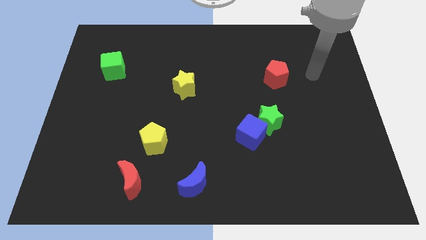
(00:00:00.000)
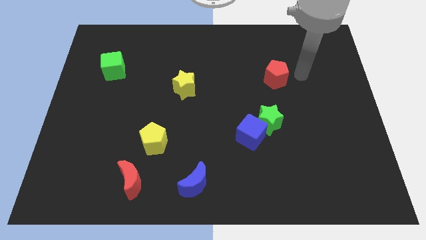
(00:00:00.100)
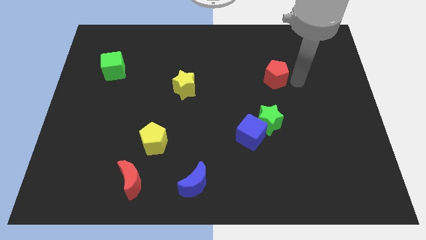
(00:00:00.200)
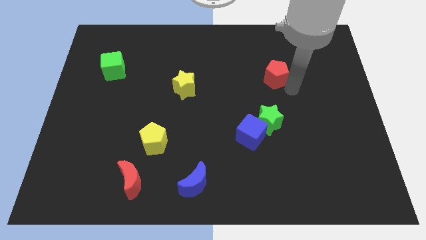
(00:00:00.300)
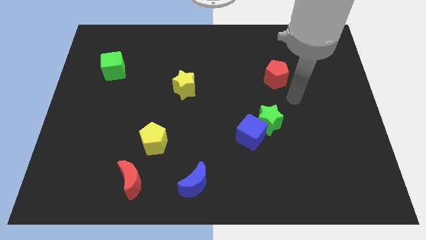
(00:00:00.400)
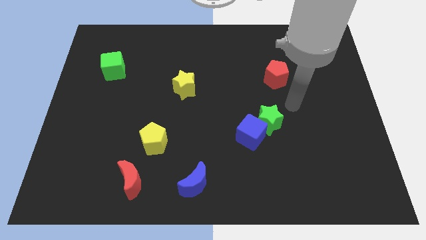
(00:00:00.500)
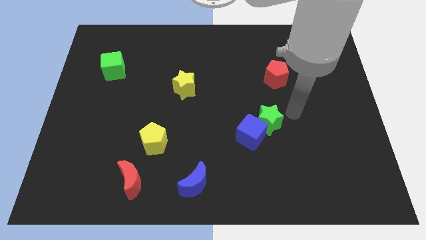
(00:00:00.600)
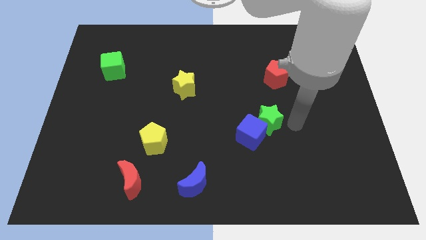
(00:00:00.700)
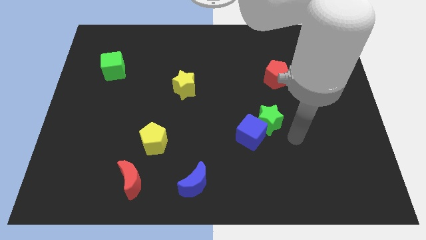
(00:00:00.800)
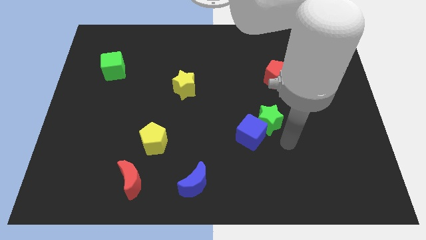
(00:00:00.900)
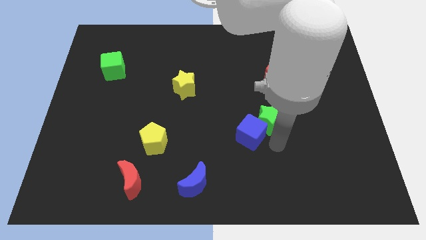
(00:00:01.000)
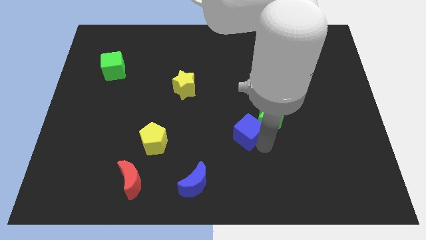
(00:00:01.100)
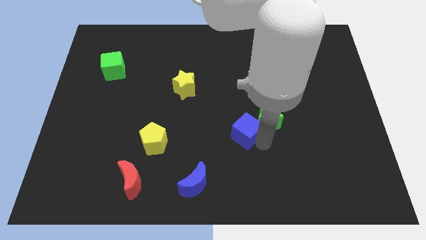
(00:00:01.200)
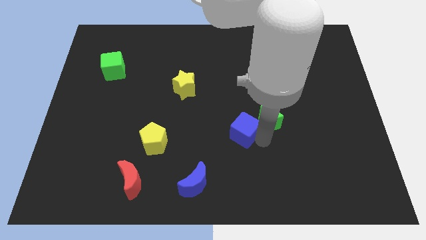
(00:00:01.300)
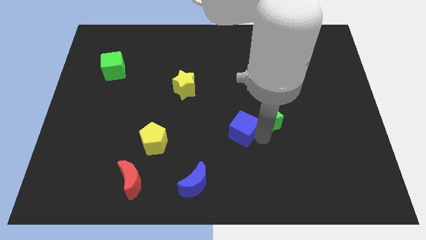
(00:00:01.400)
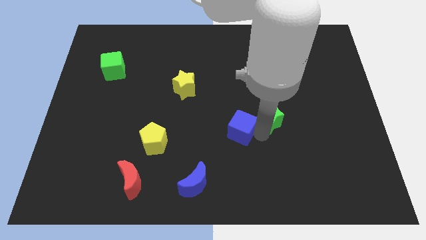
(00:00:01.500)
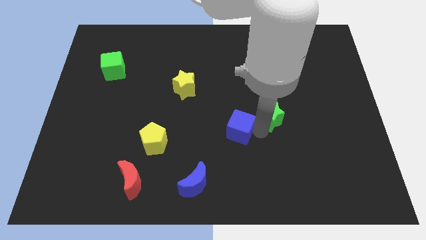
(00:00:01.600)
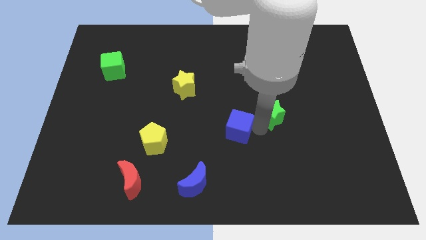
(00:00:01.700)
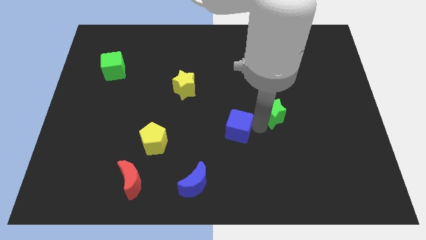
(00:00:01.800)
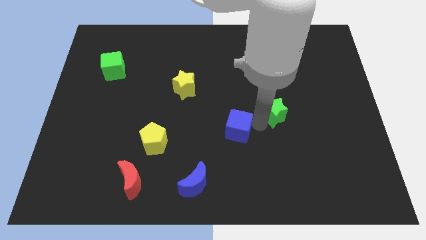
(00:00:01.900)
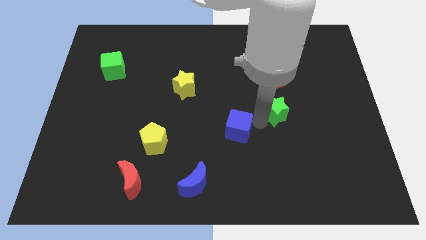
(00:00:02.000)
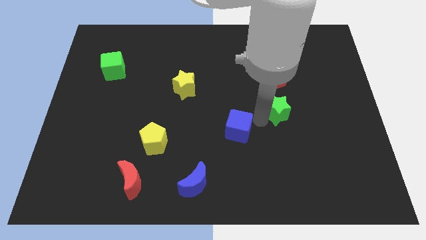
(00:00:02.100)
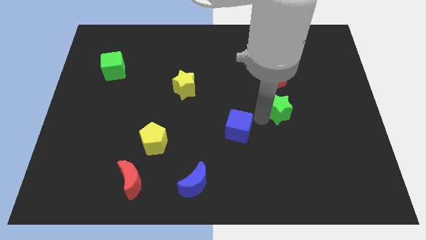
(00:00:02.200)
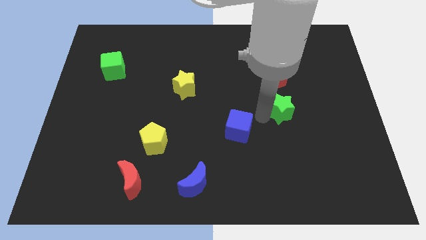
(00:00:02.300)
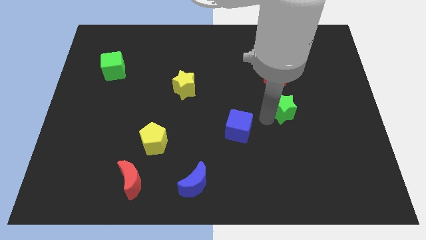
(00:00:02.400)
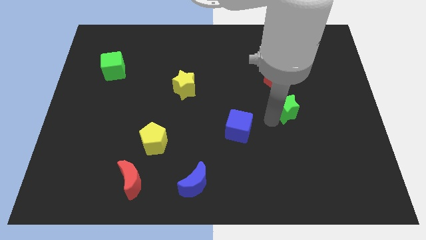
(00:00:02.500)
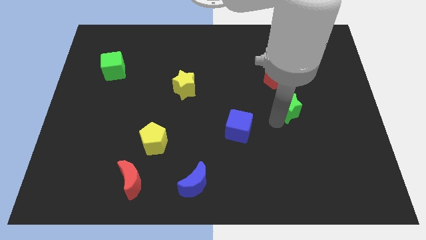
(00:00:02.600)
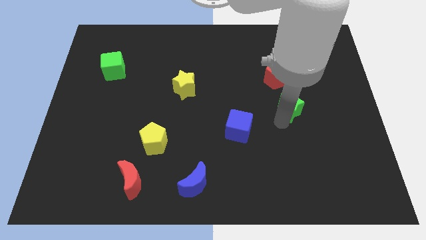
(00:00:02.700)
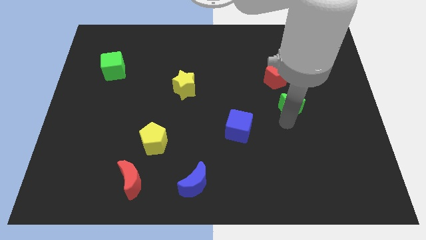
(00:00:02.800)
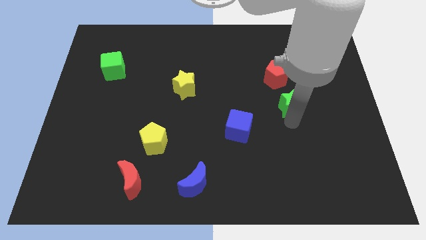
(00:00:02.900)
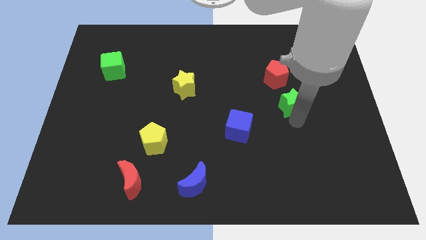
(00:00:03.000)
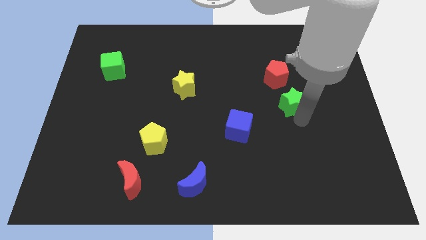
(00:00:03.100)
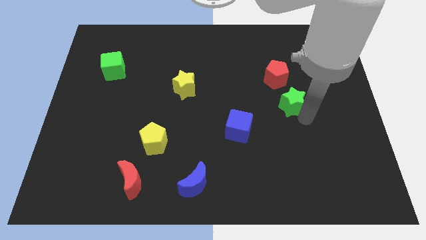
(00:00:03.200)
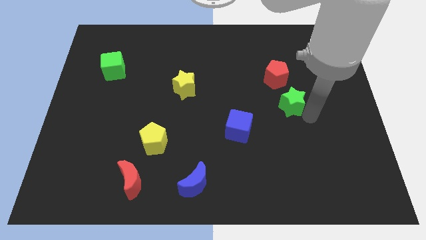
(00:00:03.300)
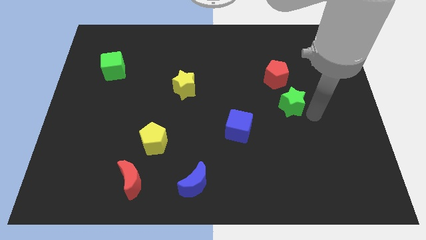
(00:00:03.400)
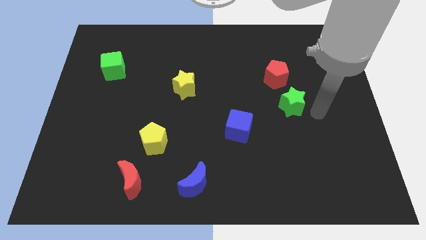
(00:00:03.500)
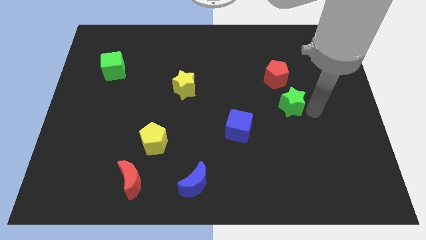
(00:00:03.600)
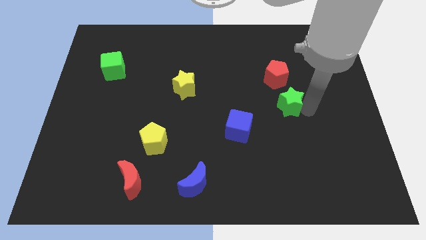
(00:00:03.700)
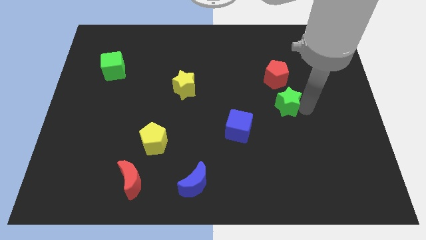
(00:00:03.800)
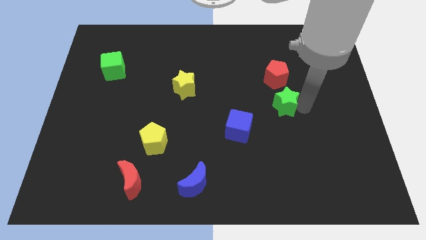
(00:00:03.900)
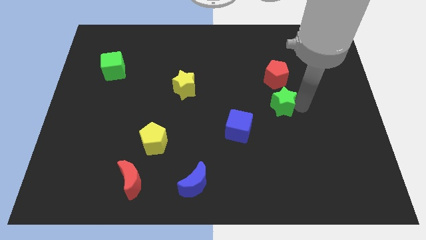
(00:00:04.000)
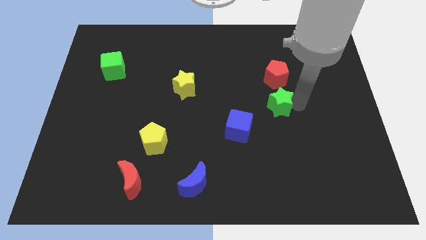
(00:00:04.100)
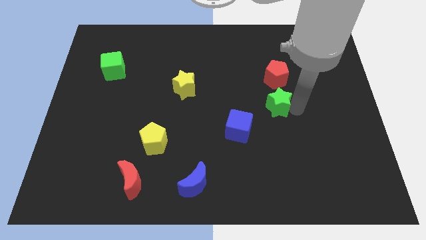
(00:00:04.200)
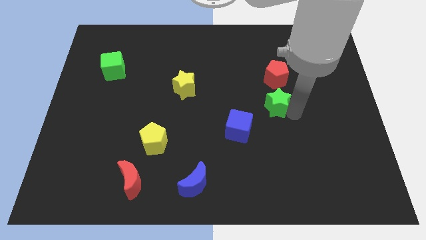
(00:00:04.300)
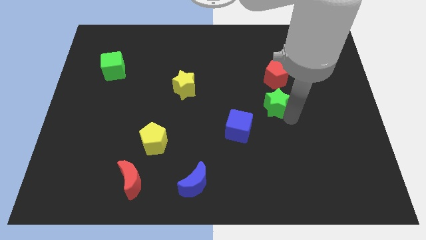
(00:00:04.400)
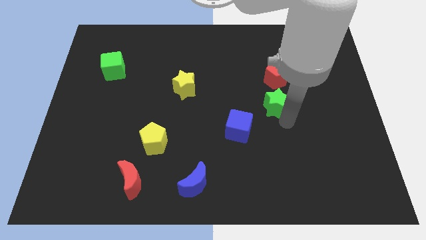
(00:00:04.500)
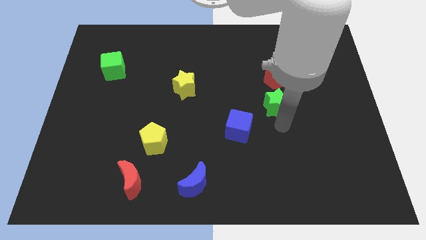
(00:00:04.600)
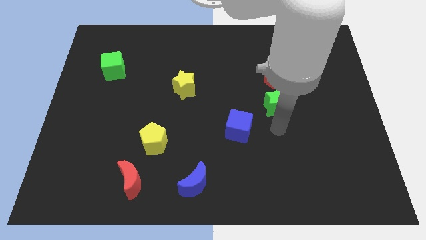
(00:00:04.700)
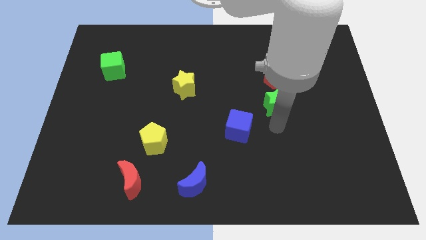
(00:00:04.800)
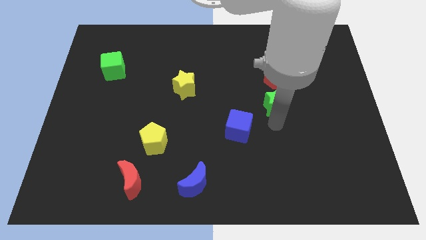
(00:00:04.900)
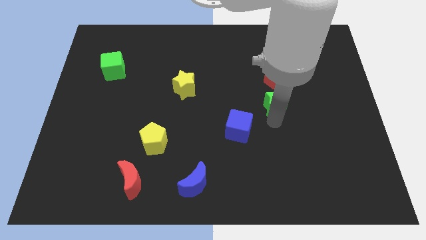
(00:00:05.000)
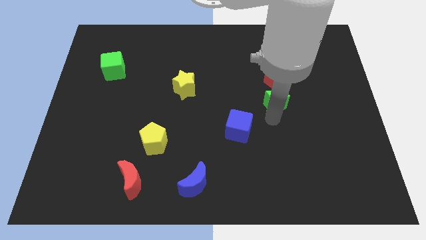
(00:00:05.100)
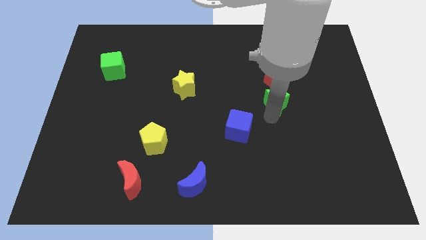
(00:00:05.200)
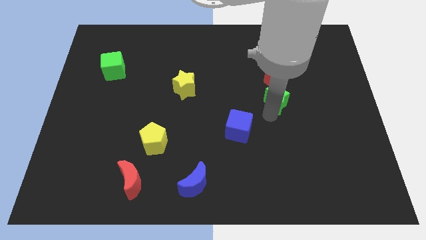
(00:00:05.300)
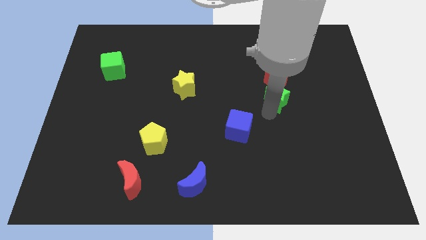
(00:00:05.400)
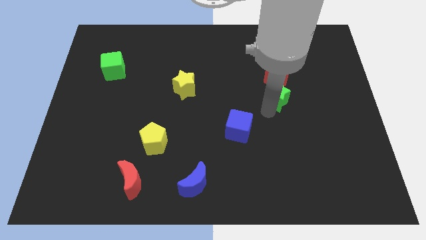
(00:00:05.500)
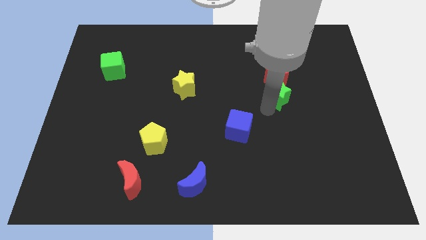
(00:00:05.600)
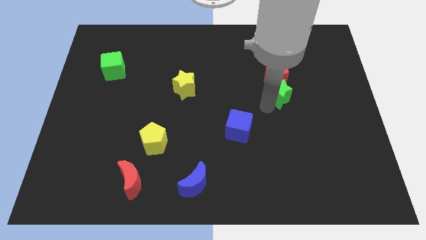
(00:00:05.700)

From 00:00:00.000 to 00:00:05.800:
push the green star close to the red pentagon

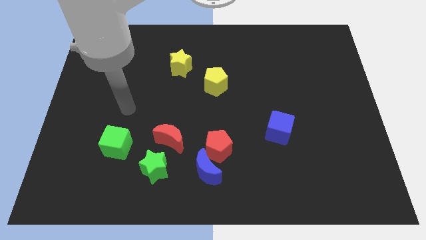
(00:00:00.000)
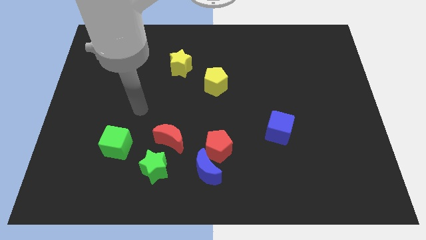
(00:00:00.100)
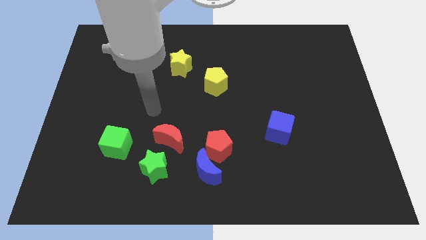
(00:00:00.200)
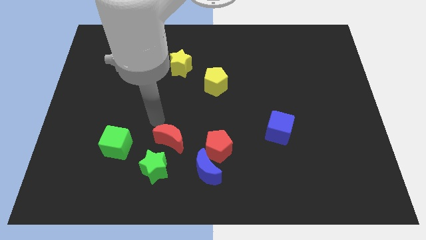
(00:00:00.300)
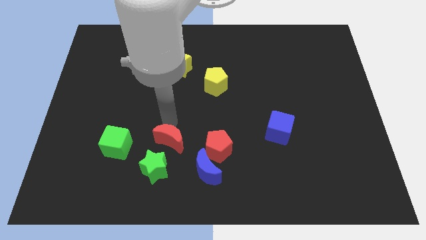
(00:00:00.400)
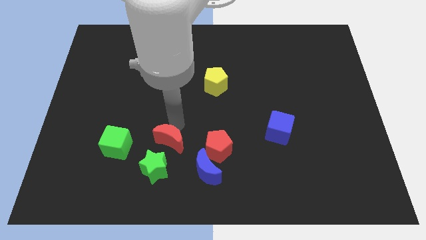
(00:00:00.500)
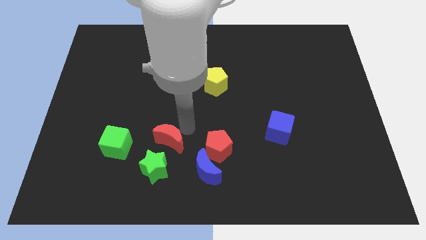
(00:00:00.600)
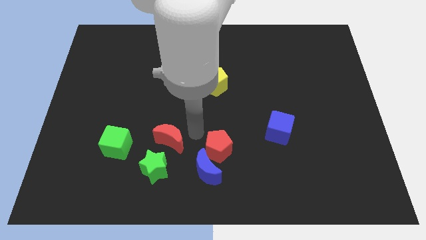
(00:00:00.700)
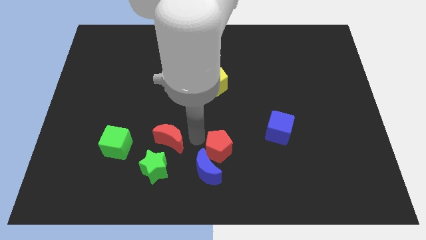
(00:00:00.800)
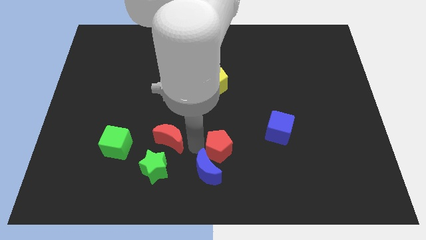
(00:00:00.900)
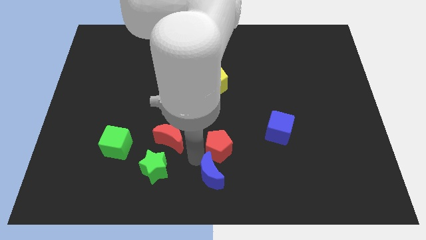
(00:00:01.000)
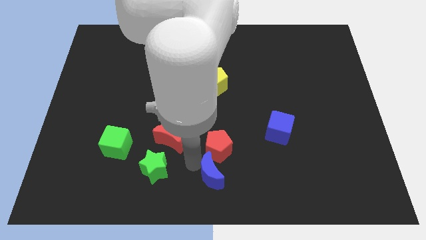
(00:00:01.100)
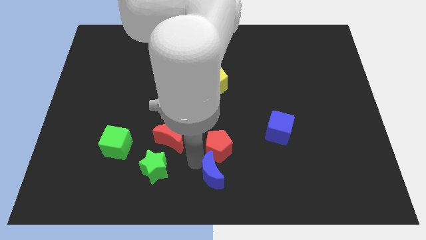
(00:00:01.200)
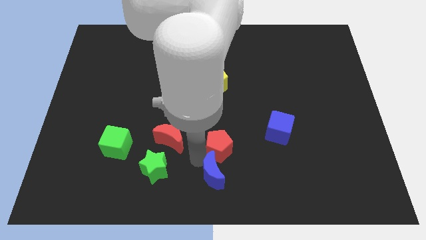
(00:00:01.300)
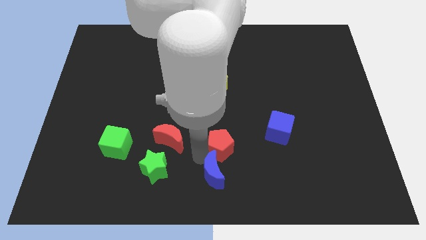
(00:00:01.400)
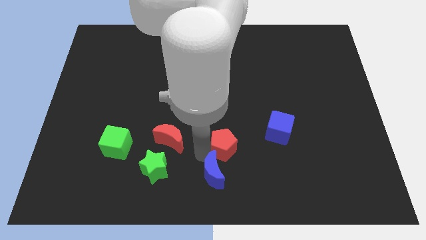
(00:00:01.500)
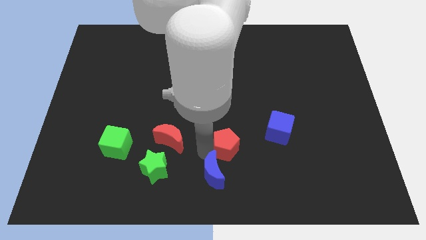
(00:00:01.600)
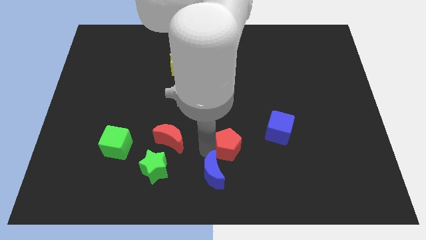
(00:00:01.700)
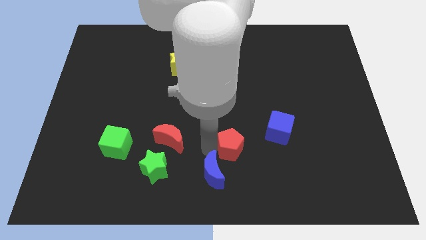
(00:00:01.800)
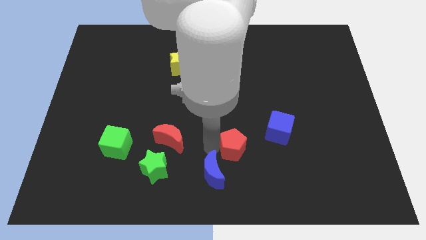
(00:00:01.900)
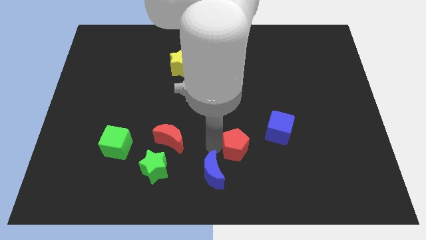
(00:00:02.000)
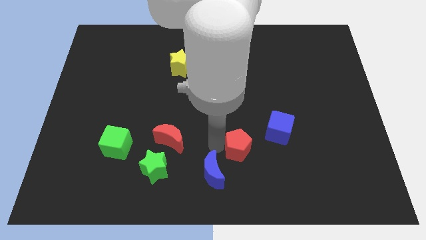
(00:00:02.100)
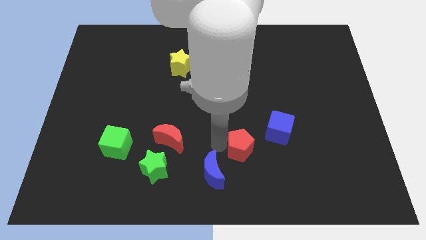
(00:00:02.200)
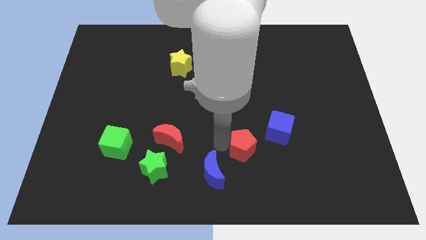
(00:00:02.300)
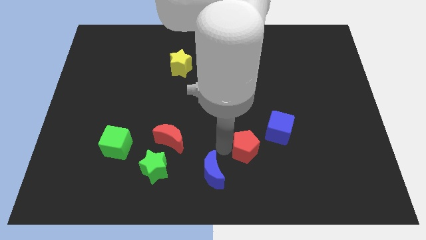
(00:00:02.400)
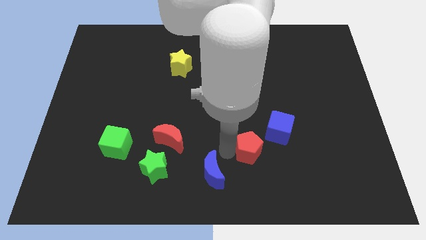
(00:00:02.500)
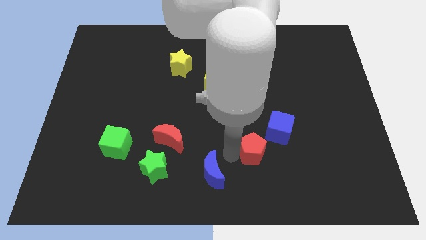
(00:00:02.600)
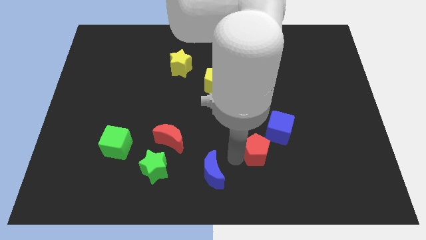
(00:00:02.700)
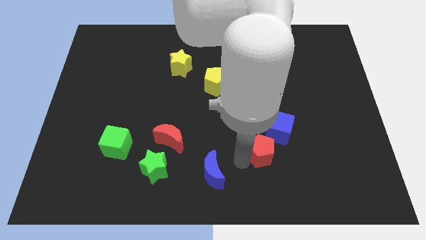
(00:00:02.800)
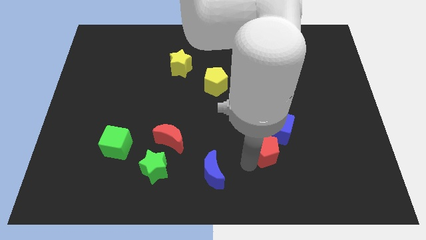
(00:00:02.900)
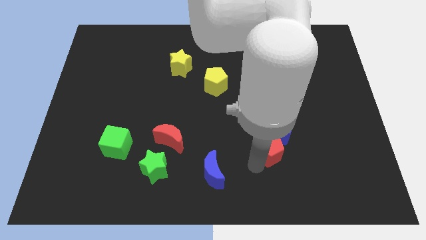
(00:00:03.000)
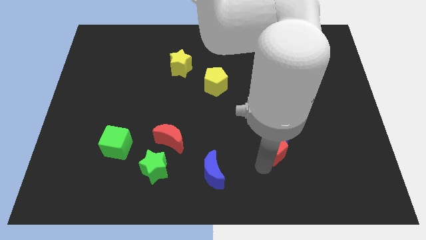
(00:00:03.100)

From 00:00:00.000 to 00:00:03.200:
move the red pentagon to the blue cube
